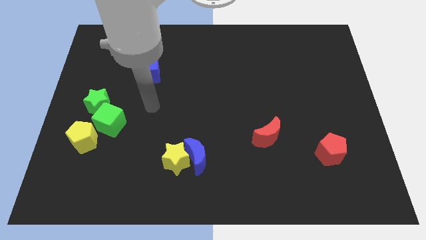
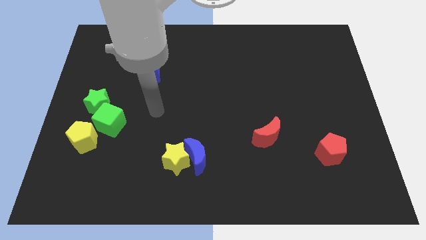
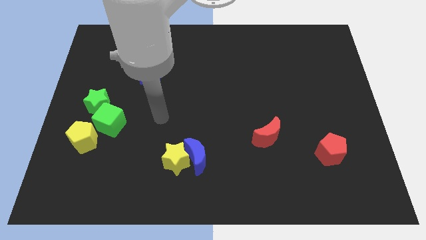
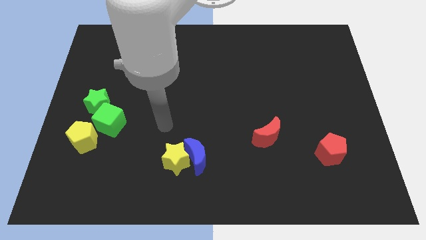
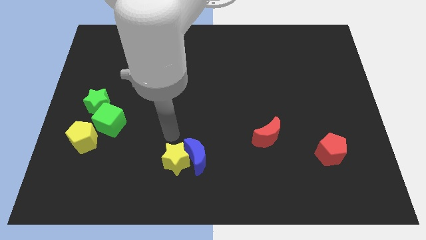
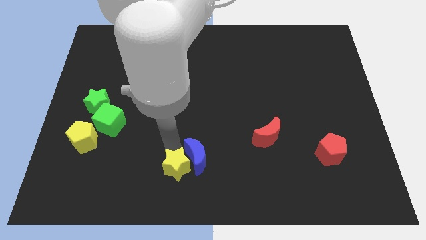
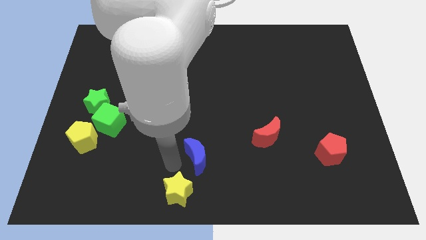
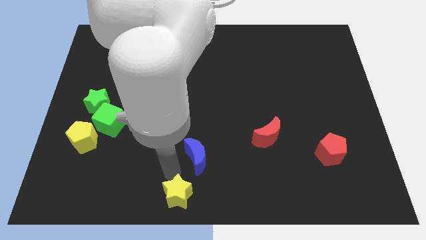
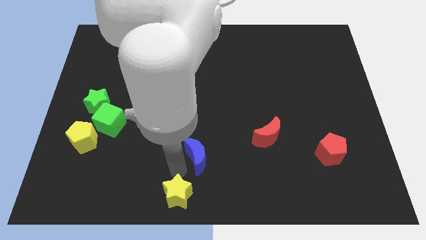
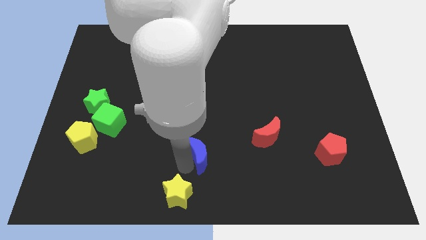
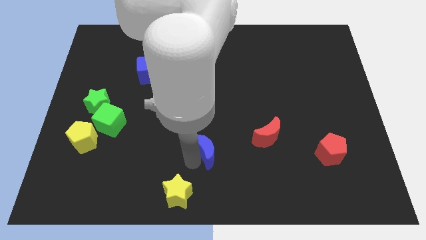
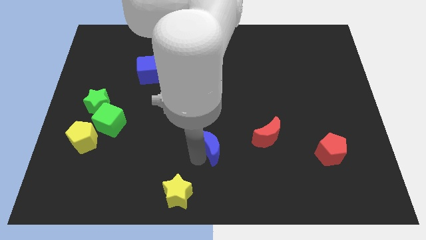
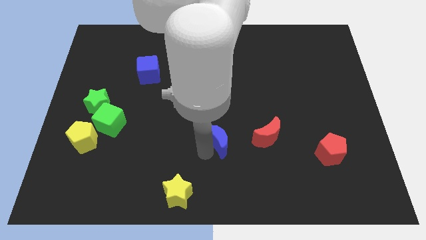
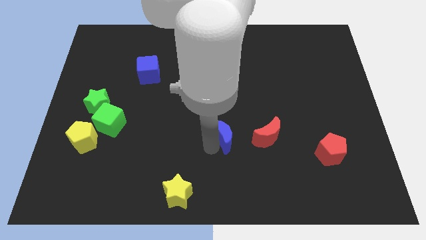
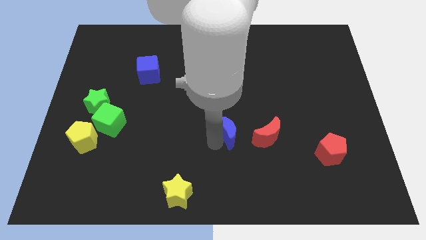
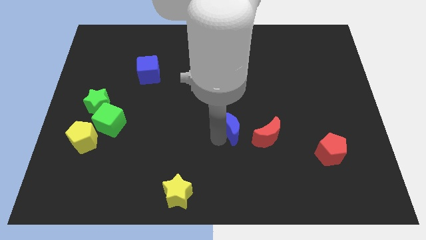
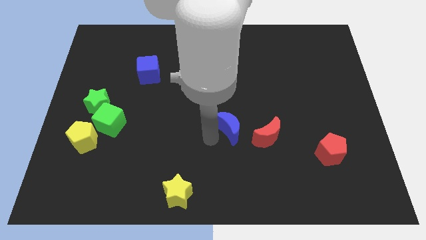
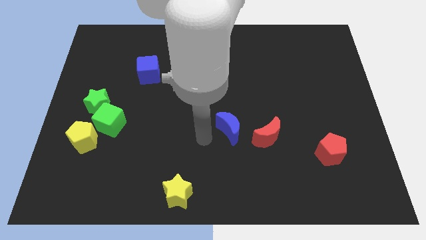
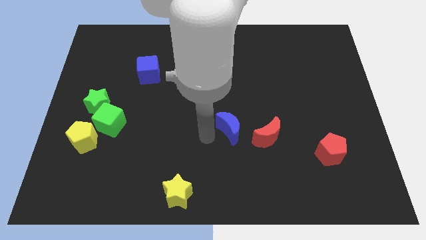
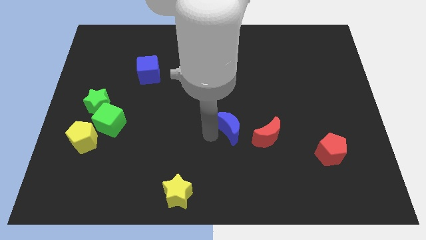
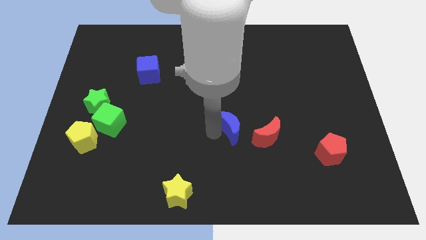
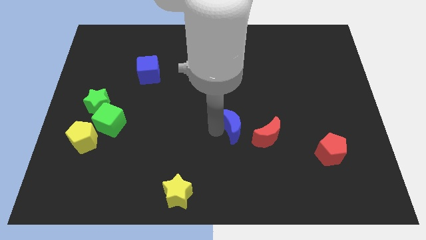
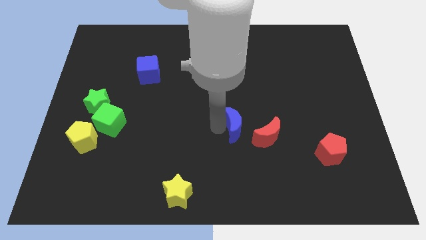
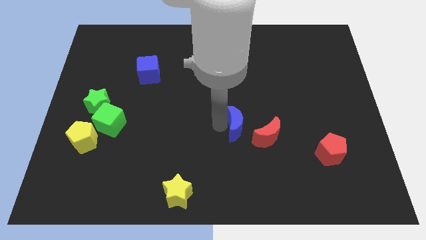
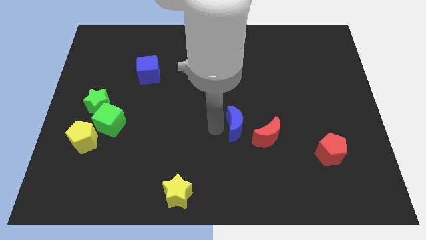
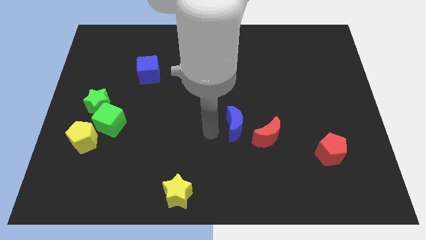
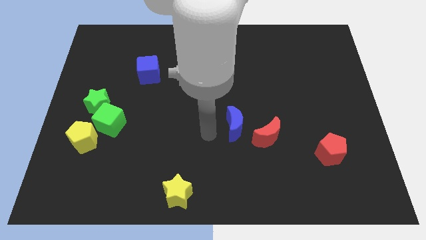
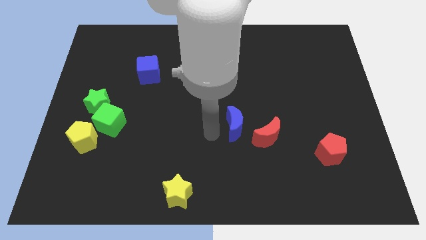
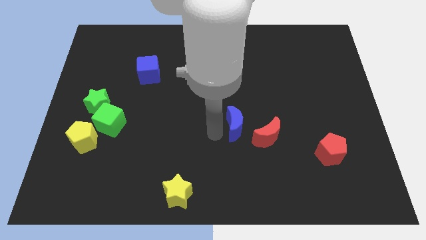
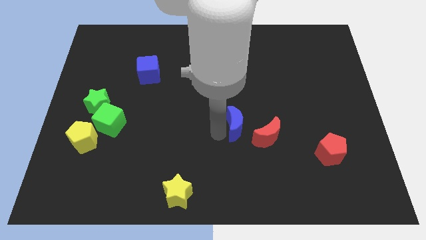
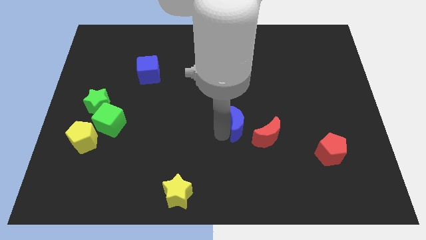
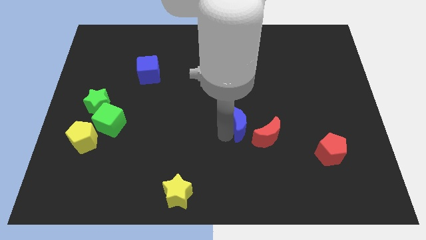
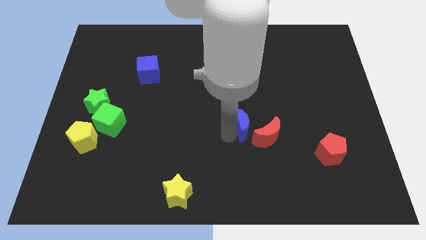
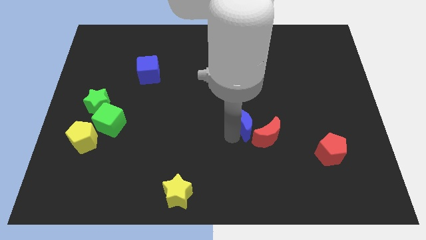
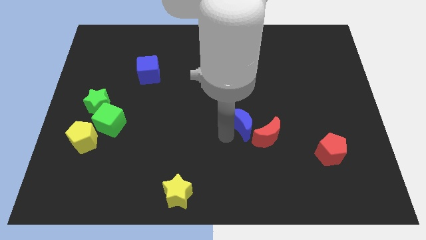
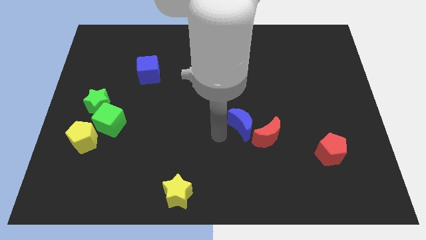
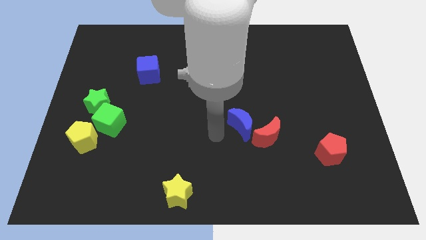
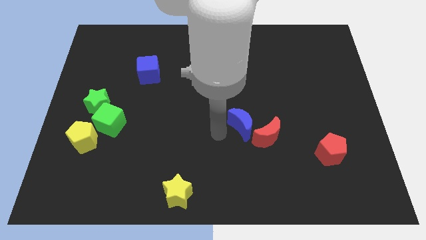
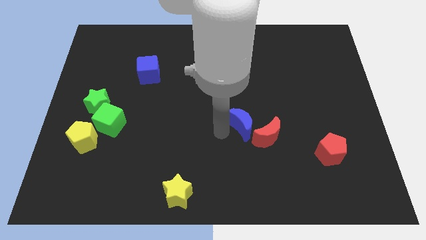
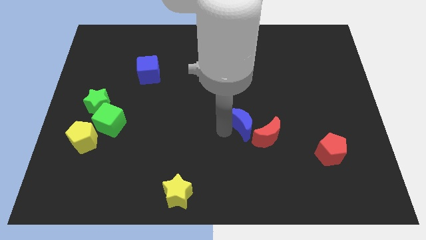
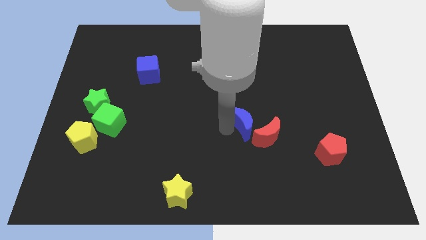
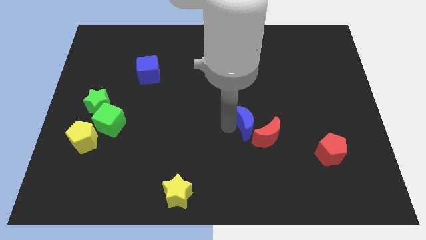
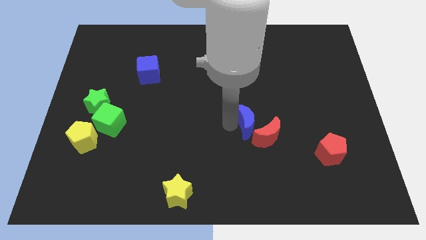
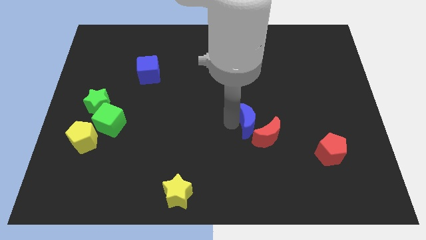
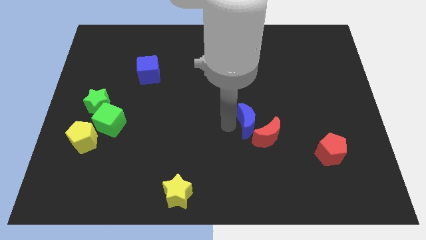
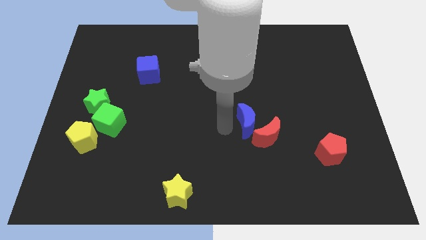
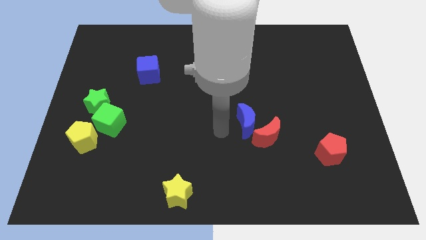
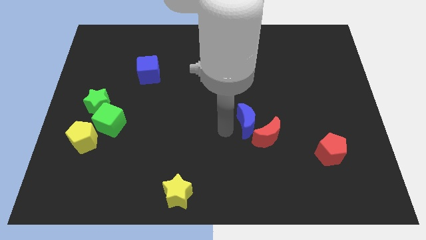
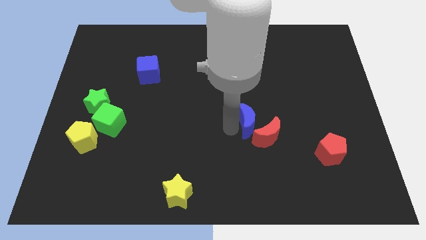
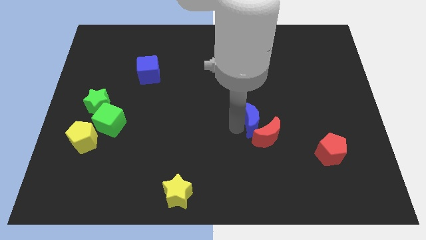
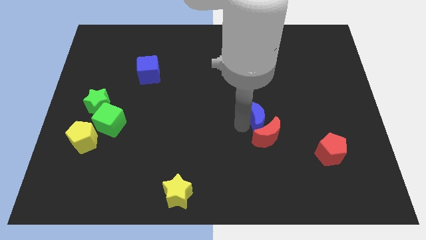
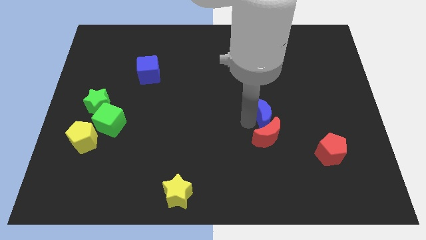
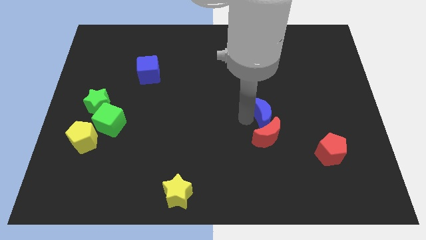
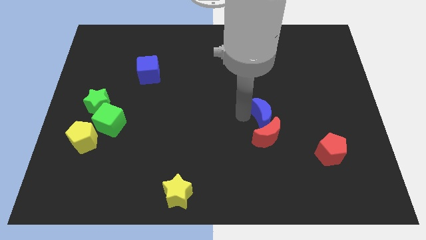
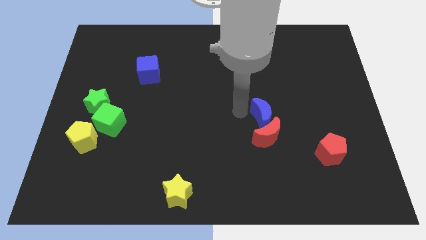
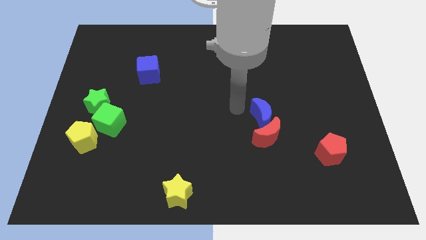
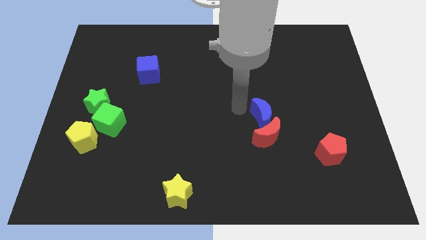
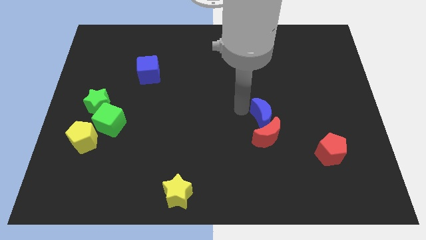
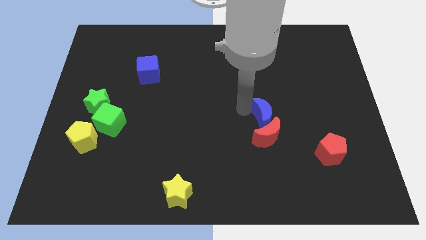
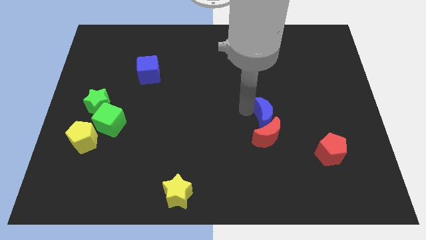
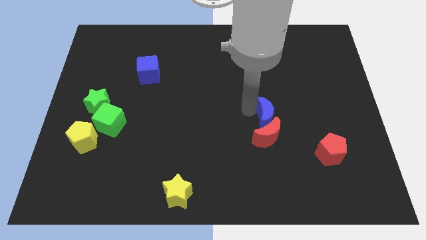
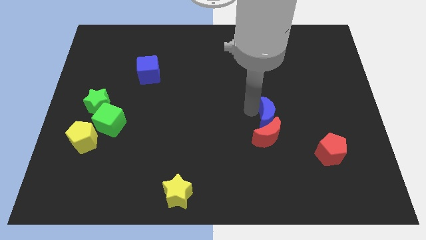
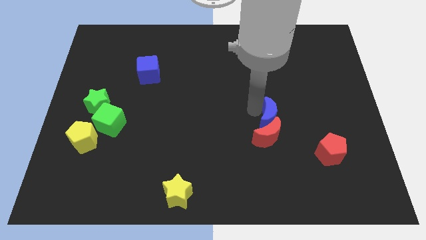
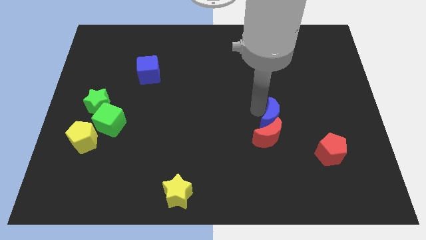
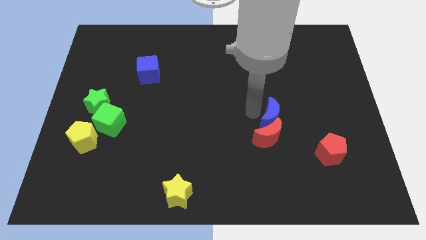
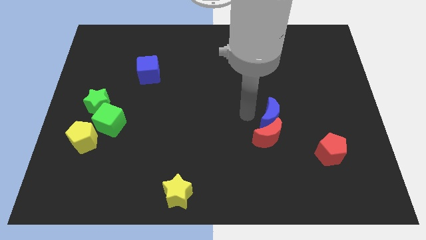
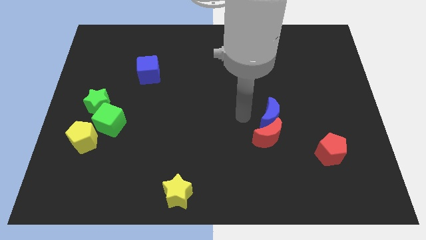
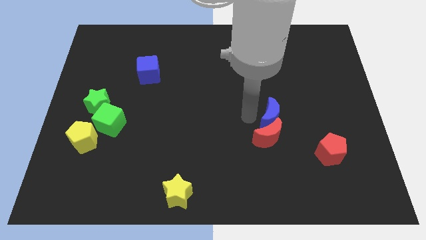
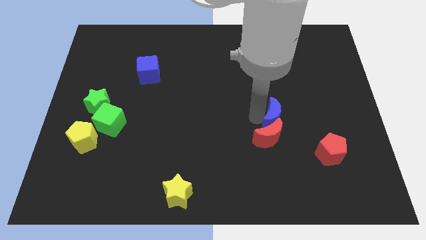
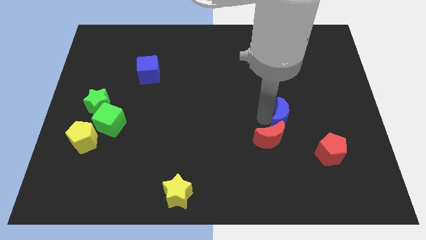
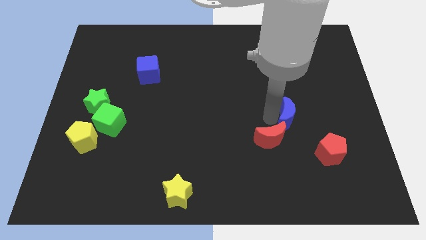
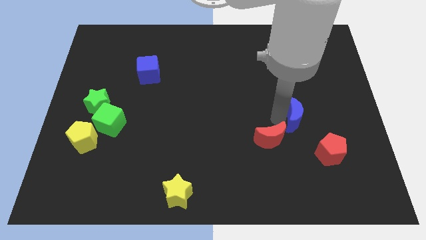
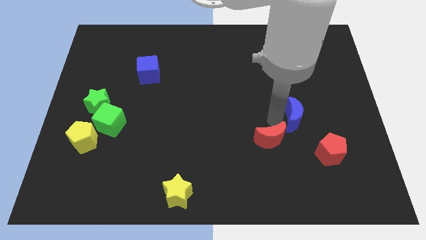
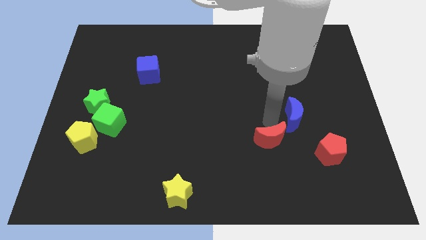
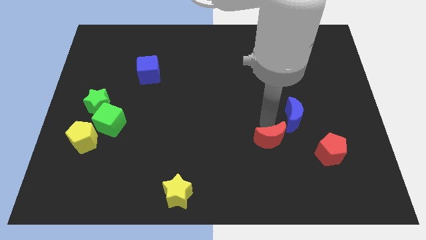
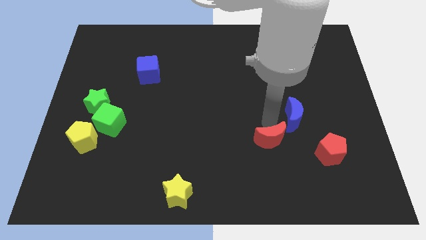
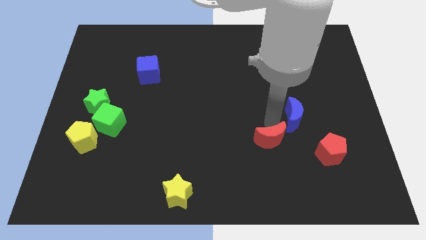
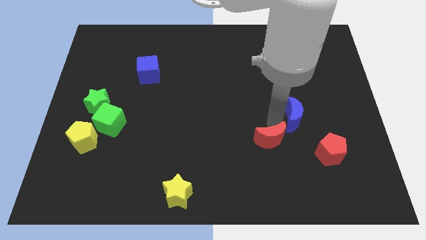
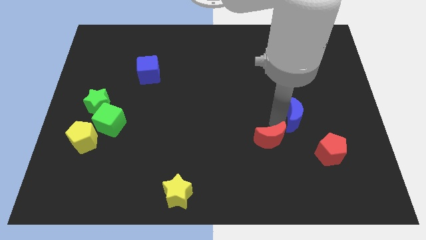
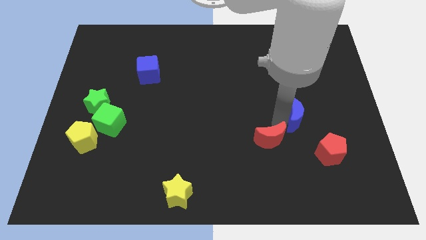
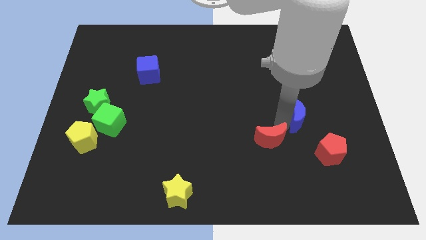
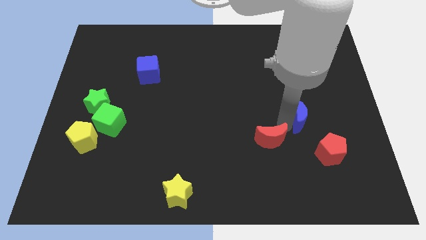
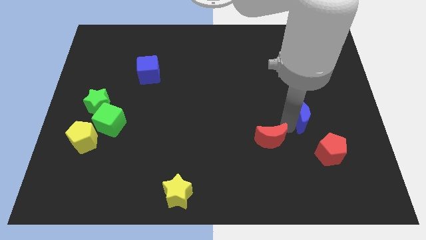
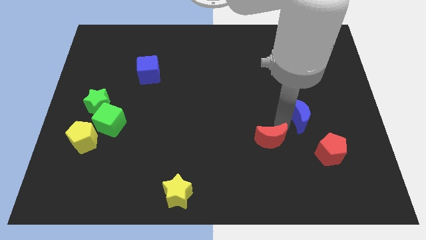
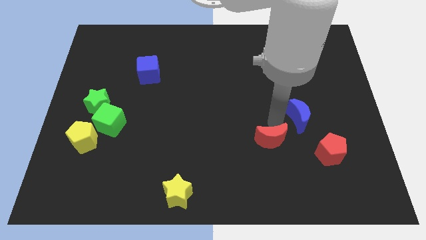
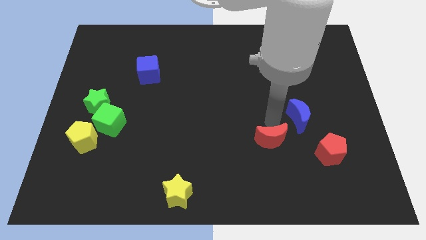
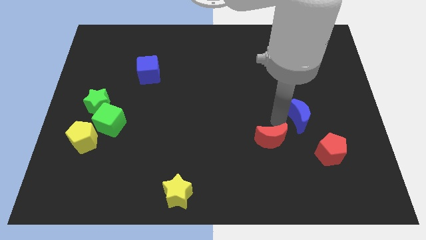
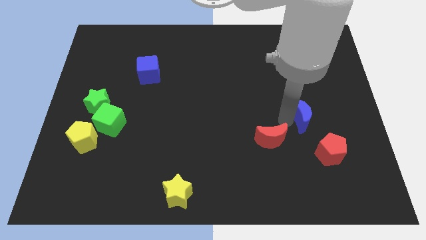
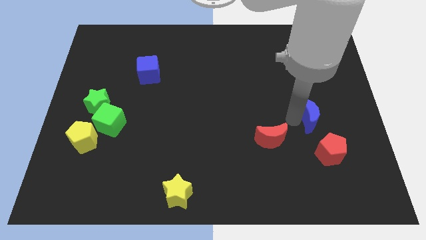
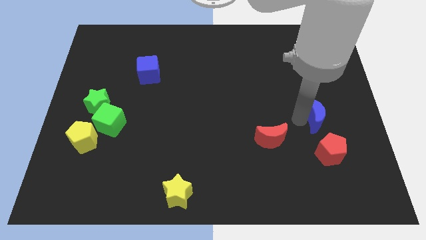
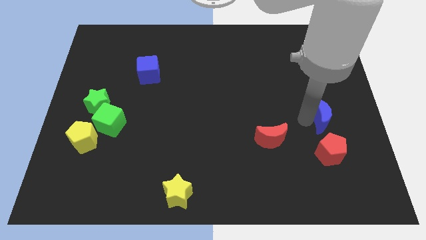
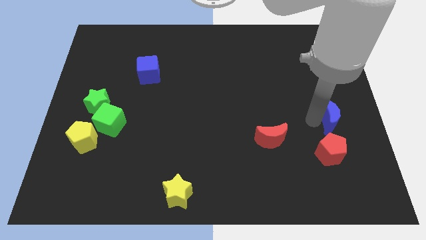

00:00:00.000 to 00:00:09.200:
push the blue moon to the center right
